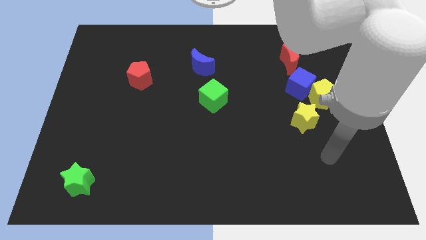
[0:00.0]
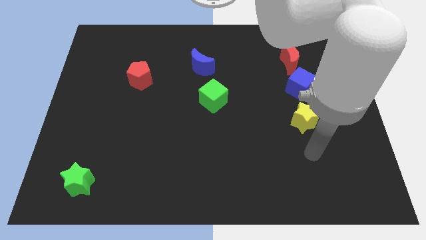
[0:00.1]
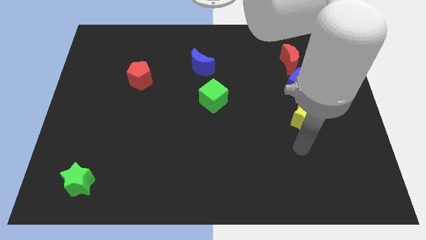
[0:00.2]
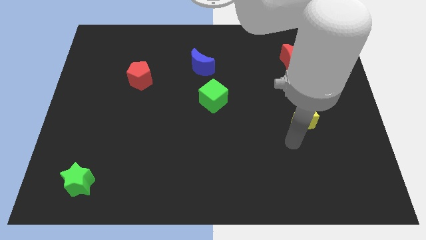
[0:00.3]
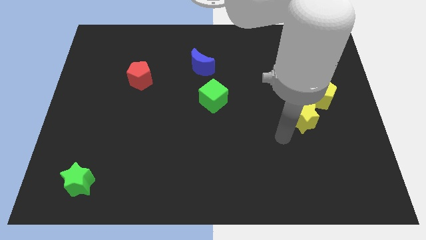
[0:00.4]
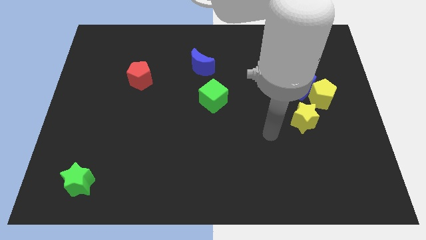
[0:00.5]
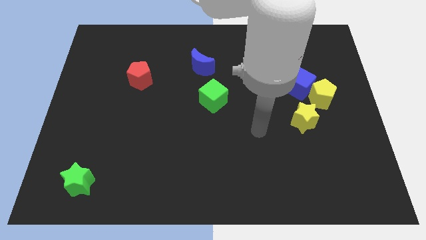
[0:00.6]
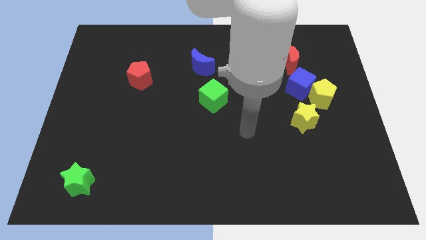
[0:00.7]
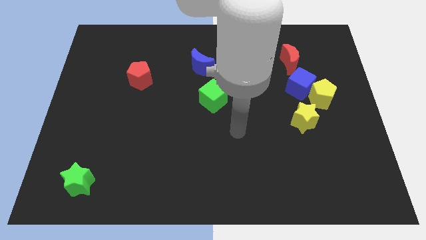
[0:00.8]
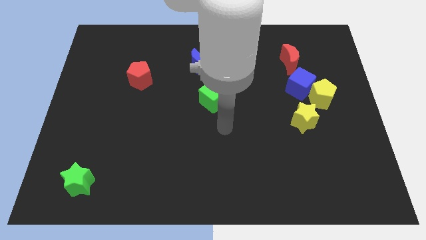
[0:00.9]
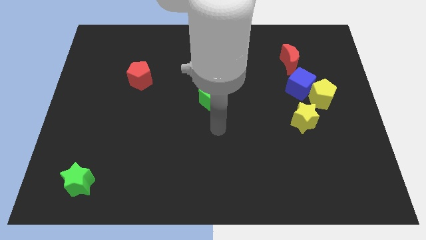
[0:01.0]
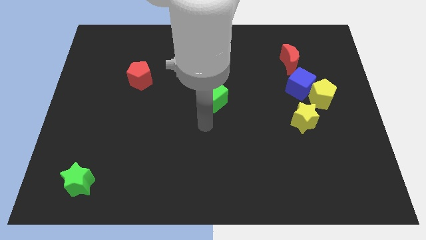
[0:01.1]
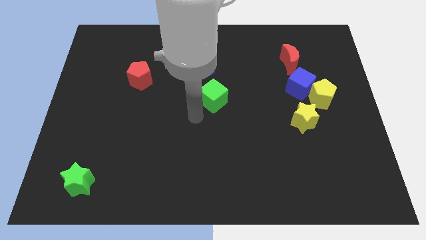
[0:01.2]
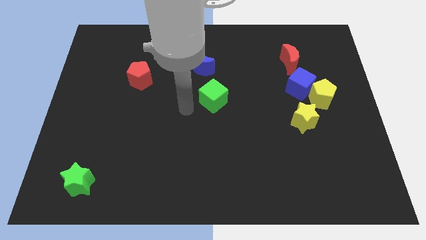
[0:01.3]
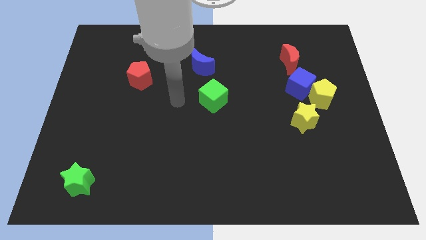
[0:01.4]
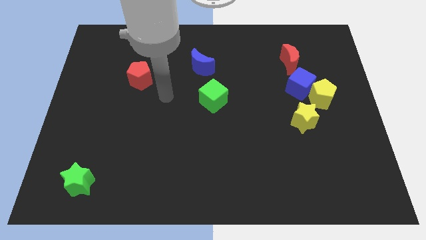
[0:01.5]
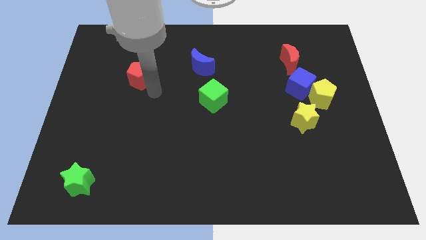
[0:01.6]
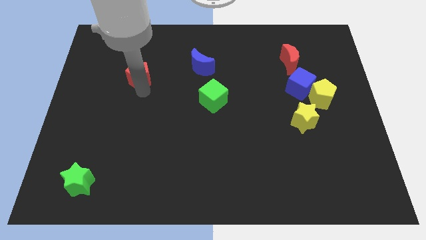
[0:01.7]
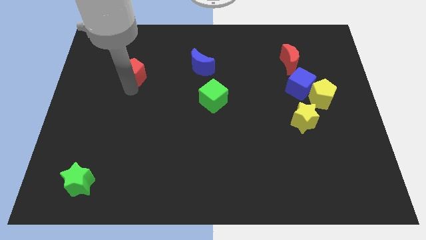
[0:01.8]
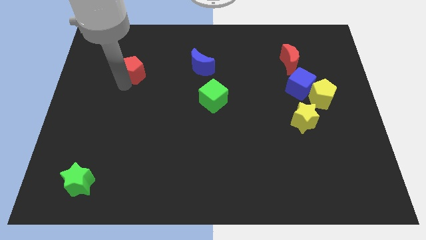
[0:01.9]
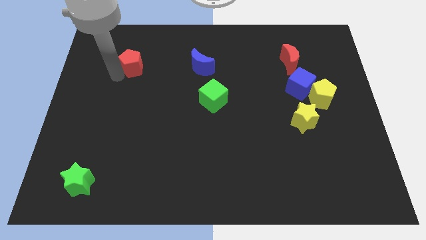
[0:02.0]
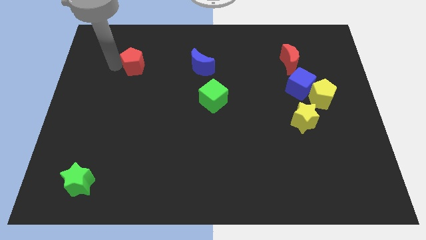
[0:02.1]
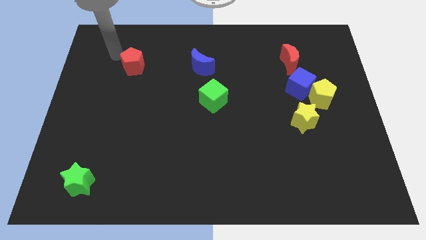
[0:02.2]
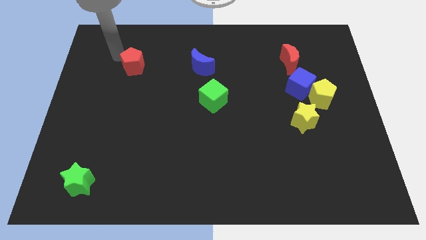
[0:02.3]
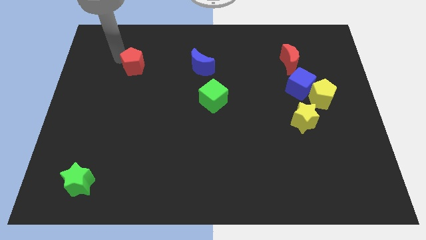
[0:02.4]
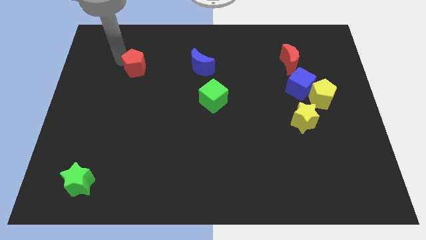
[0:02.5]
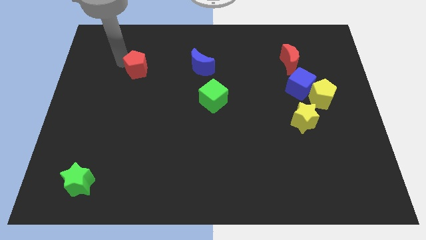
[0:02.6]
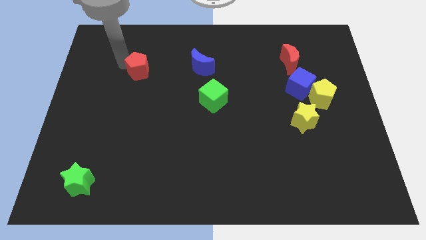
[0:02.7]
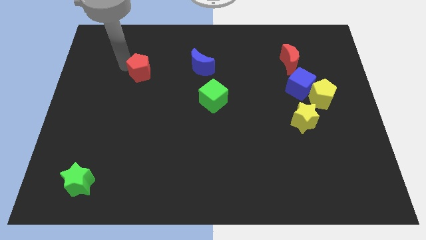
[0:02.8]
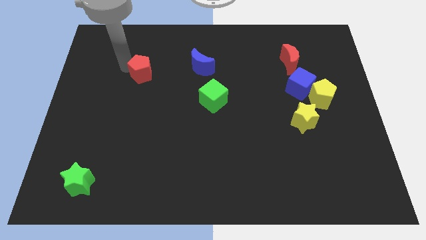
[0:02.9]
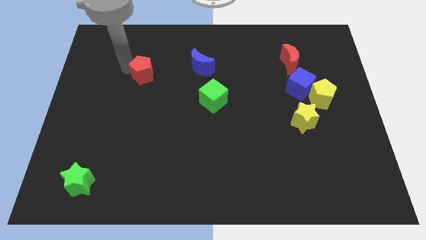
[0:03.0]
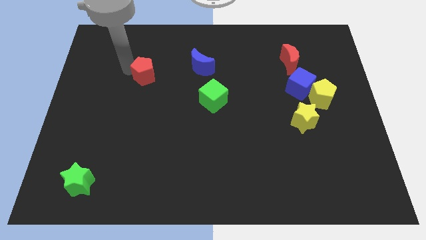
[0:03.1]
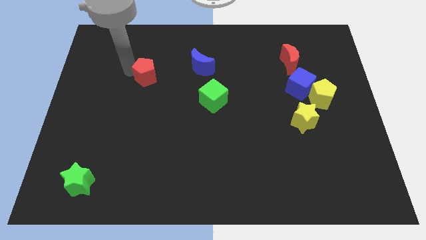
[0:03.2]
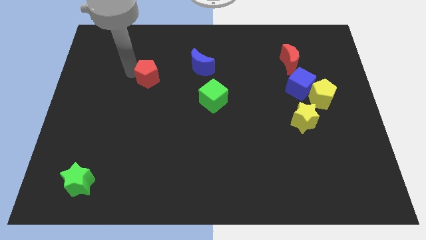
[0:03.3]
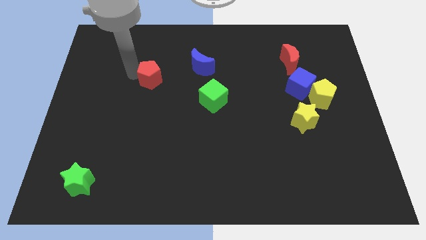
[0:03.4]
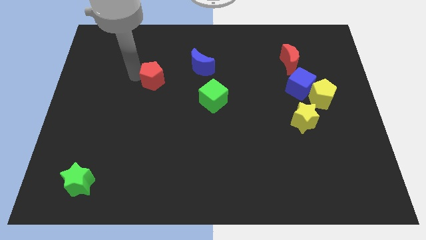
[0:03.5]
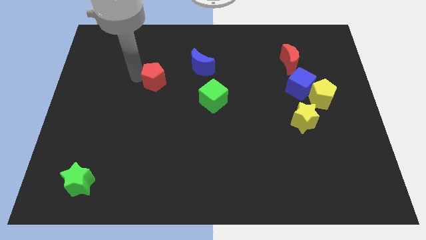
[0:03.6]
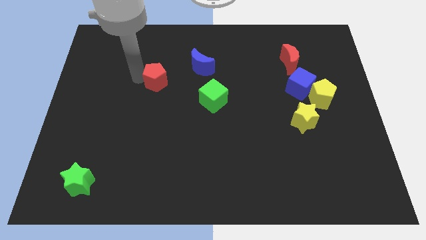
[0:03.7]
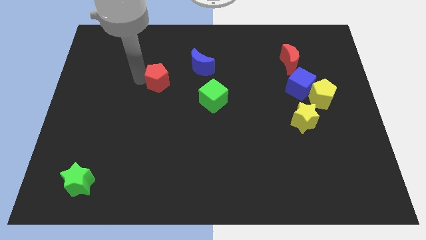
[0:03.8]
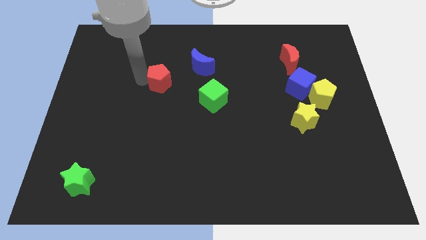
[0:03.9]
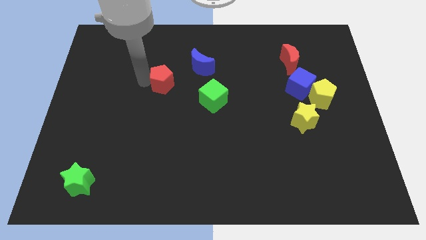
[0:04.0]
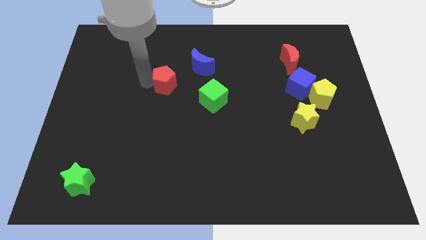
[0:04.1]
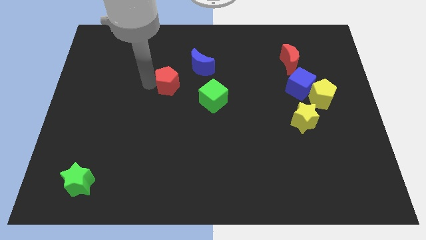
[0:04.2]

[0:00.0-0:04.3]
push the red pentagon a bit right

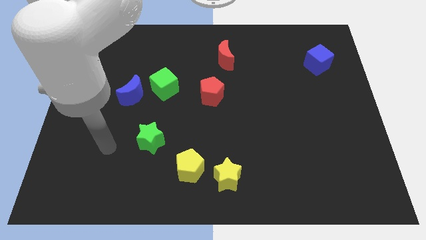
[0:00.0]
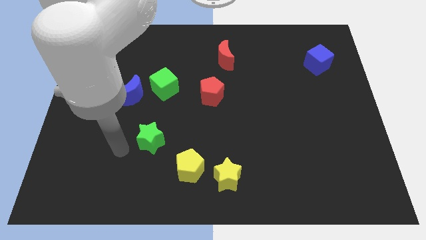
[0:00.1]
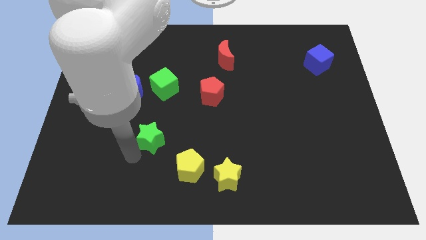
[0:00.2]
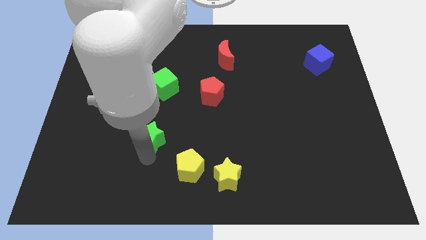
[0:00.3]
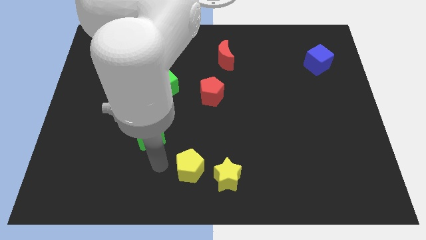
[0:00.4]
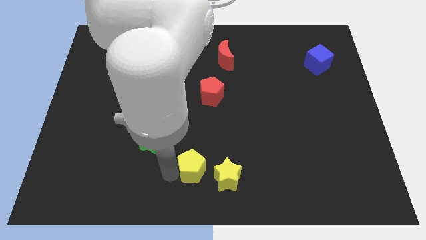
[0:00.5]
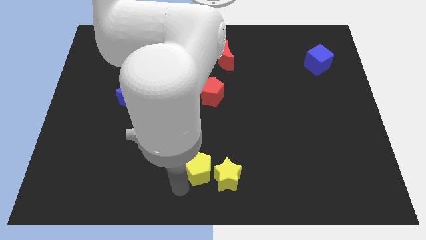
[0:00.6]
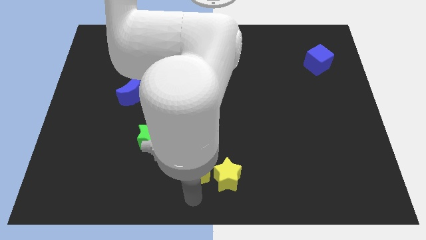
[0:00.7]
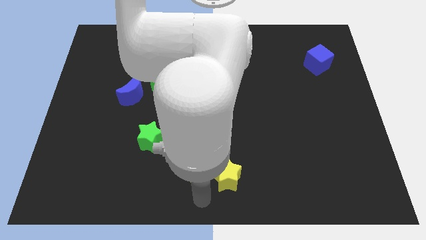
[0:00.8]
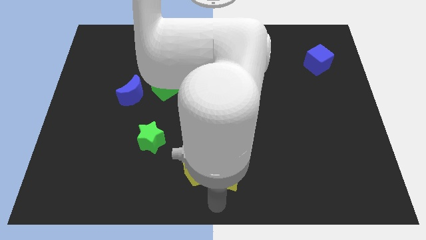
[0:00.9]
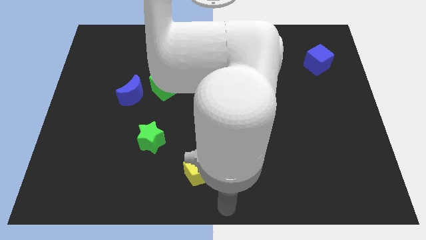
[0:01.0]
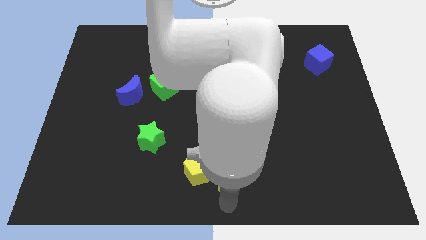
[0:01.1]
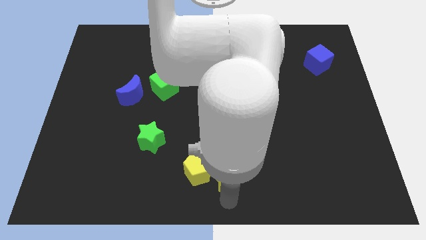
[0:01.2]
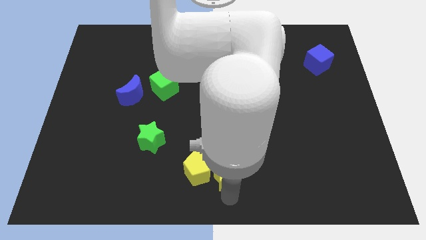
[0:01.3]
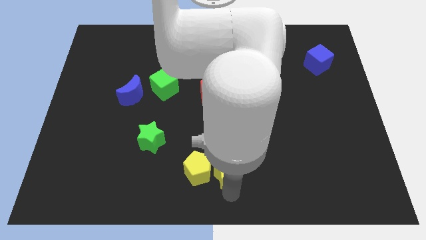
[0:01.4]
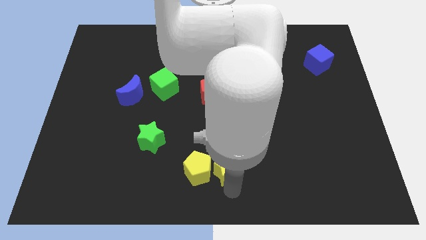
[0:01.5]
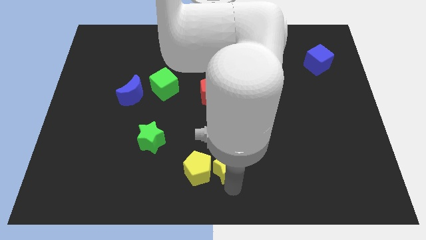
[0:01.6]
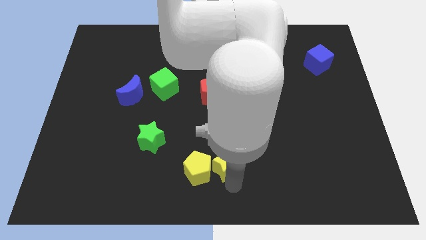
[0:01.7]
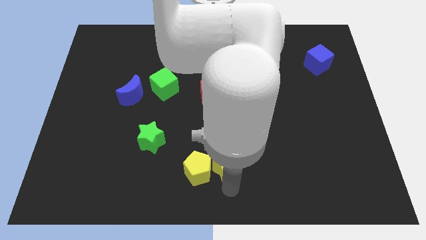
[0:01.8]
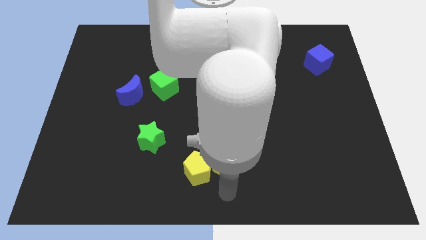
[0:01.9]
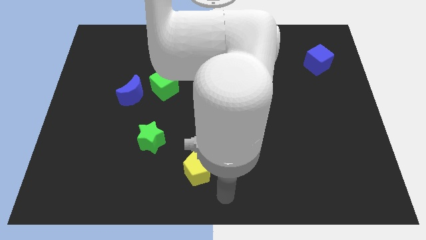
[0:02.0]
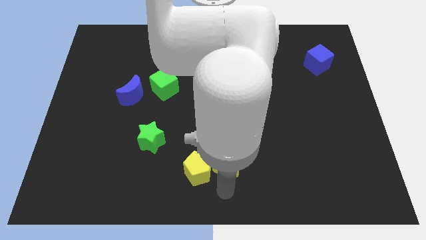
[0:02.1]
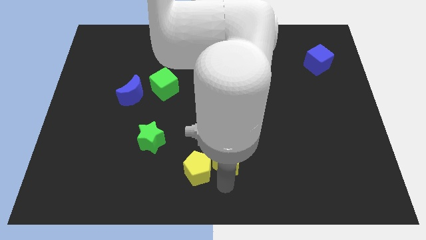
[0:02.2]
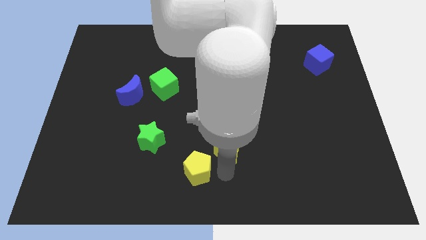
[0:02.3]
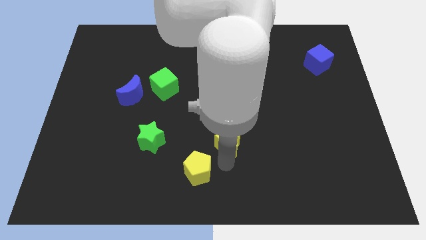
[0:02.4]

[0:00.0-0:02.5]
push the yellow star slightly upwards

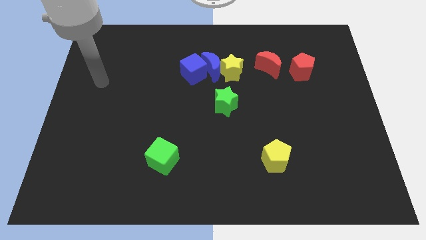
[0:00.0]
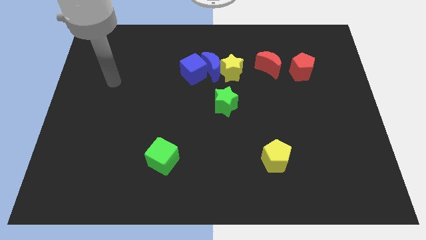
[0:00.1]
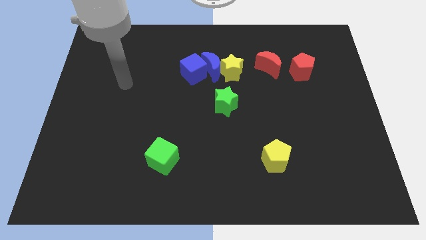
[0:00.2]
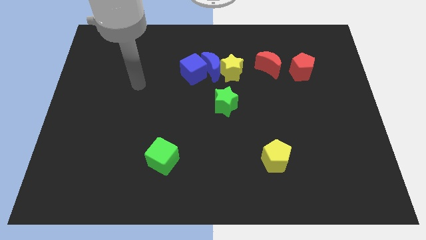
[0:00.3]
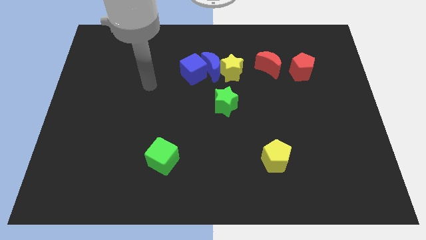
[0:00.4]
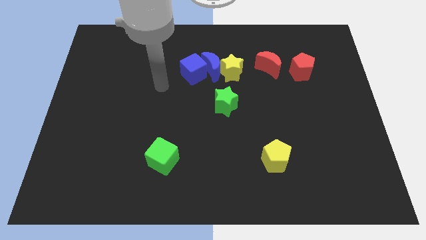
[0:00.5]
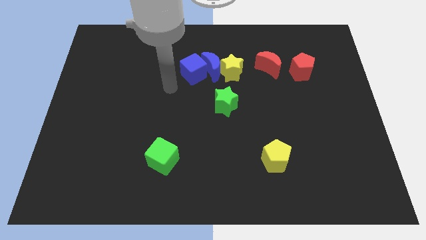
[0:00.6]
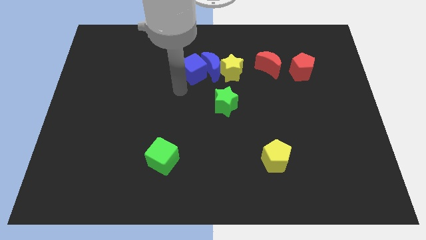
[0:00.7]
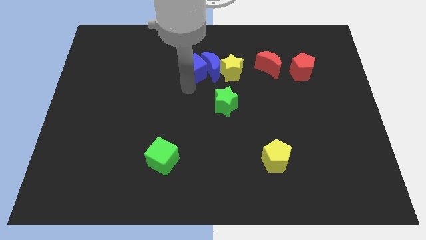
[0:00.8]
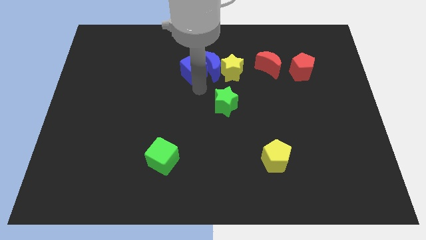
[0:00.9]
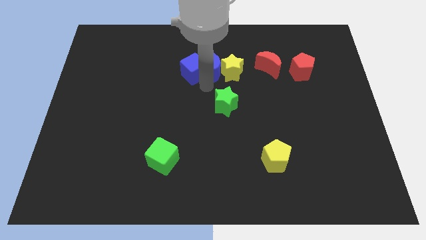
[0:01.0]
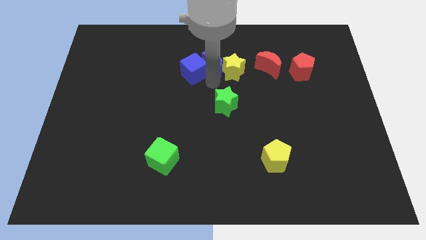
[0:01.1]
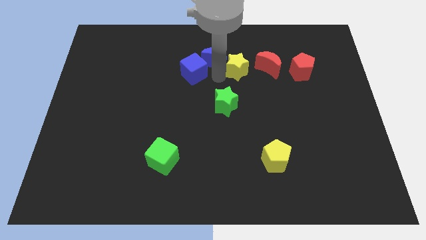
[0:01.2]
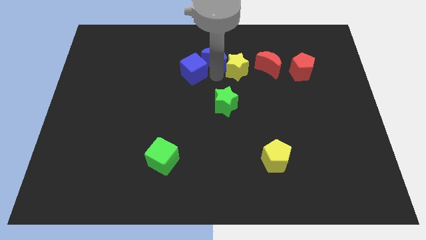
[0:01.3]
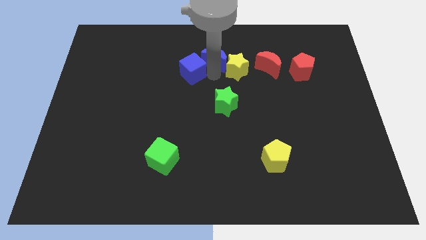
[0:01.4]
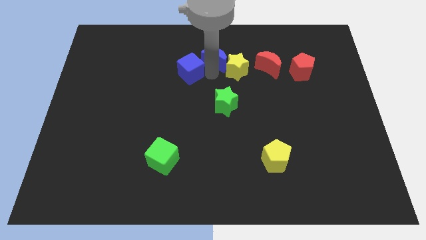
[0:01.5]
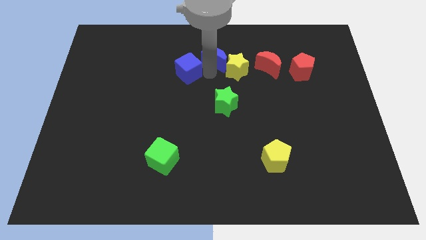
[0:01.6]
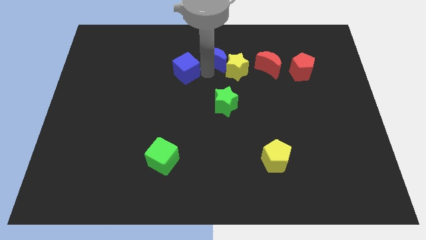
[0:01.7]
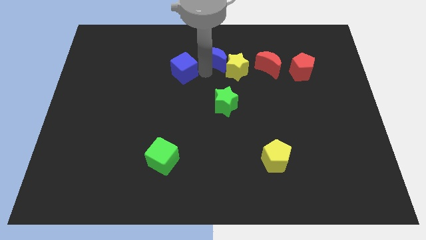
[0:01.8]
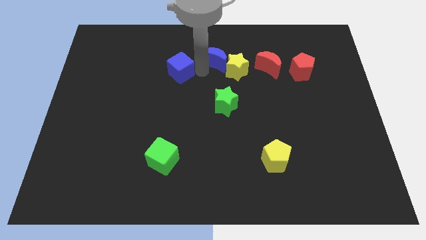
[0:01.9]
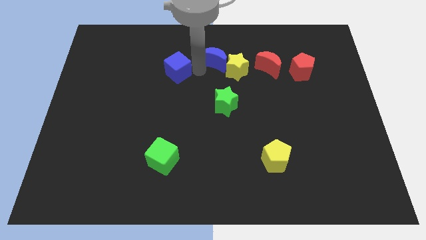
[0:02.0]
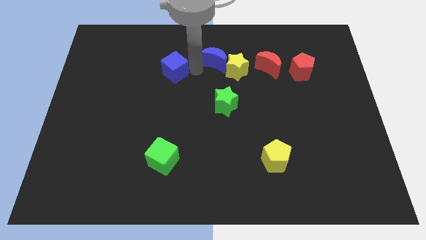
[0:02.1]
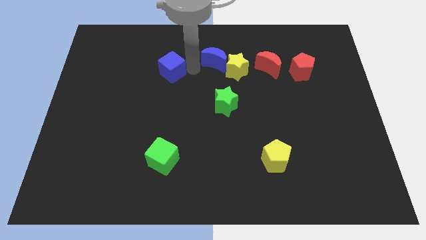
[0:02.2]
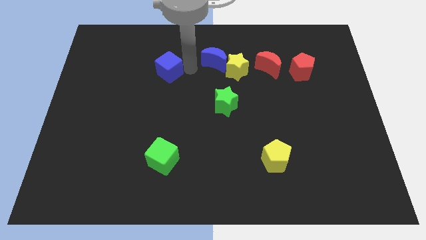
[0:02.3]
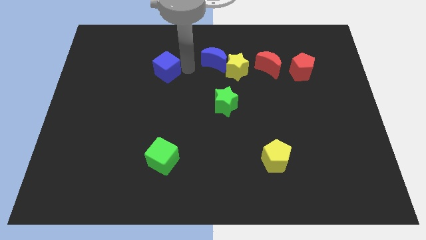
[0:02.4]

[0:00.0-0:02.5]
push the blue cube somewhat to the left
